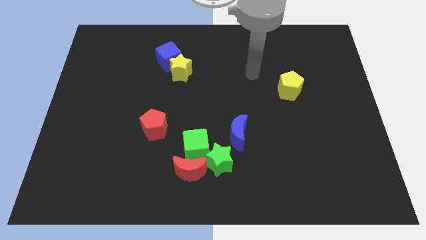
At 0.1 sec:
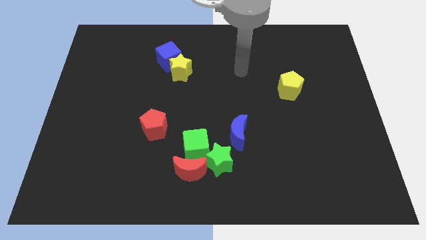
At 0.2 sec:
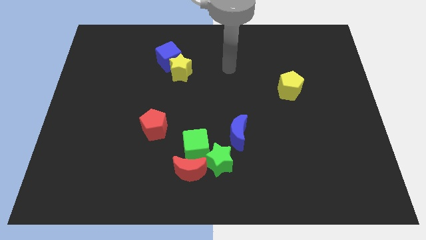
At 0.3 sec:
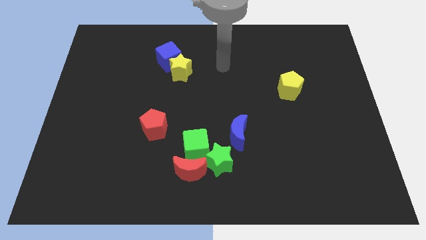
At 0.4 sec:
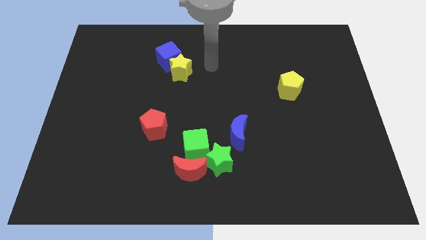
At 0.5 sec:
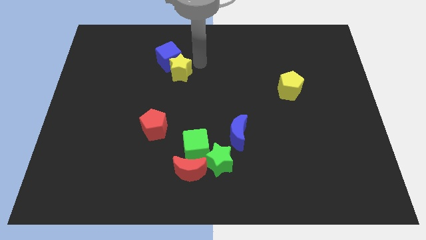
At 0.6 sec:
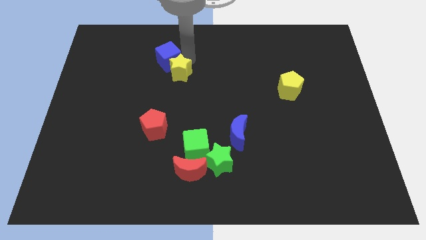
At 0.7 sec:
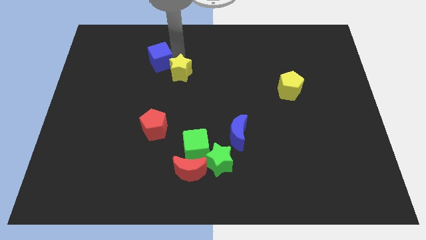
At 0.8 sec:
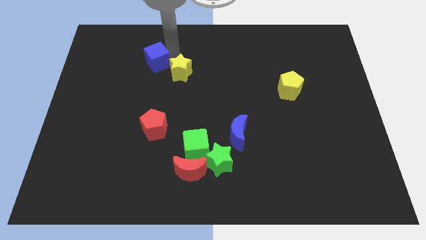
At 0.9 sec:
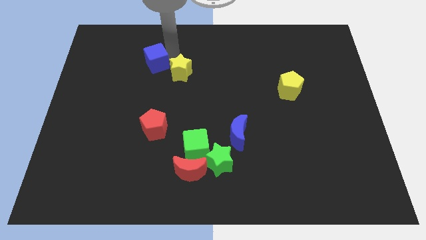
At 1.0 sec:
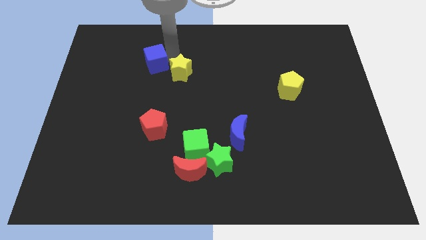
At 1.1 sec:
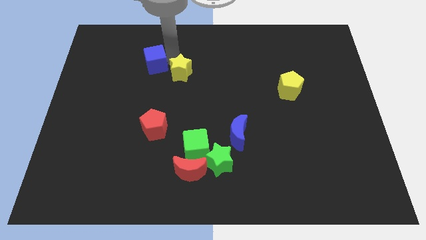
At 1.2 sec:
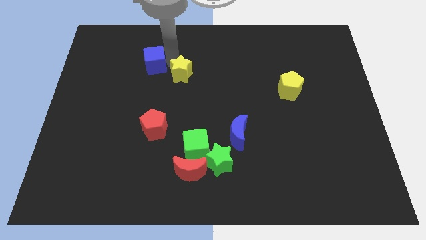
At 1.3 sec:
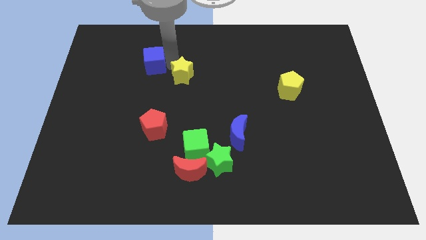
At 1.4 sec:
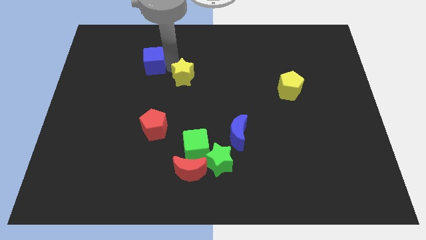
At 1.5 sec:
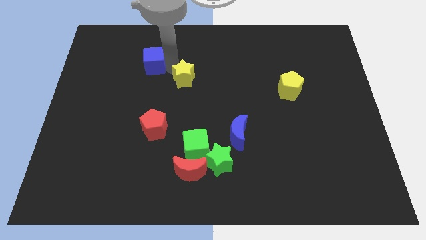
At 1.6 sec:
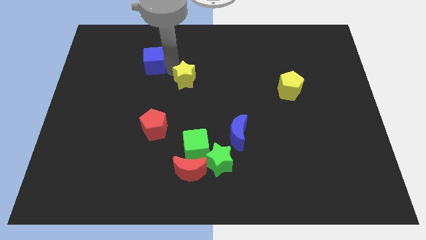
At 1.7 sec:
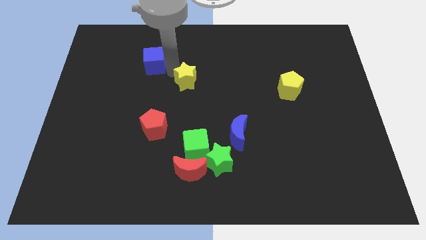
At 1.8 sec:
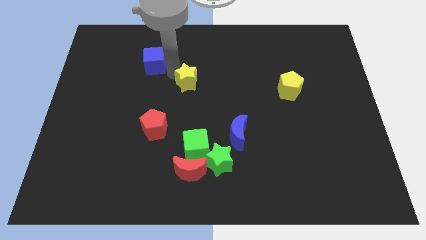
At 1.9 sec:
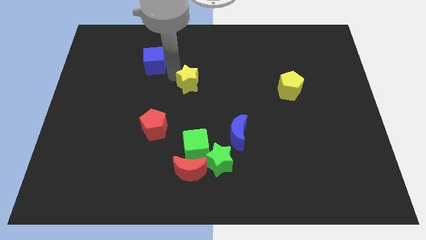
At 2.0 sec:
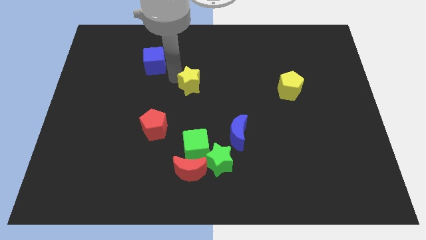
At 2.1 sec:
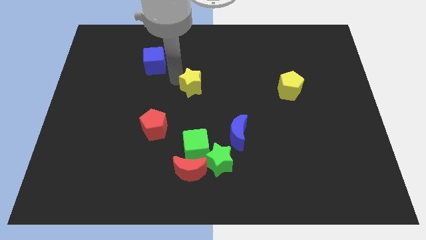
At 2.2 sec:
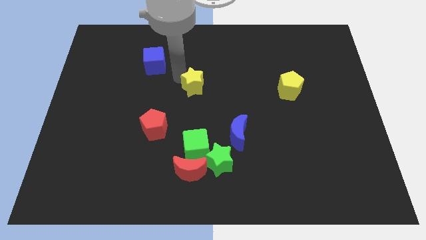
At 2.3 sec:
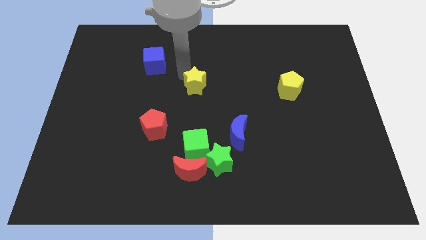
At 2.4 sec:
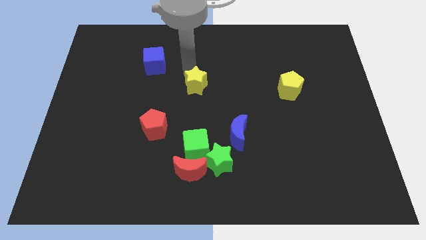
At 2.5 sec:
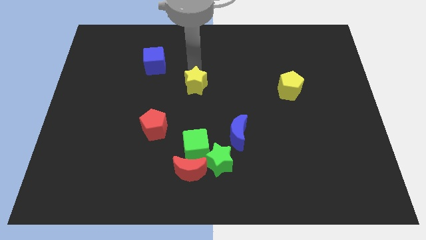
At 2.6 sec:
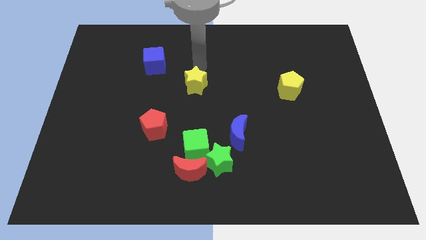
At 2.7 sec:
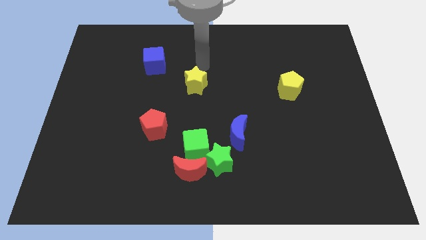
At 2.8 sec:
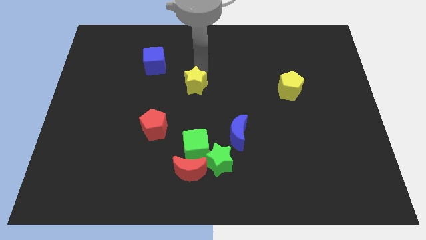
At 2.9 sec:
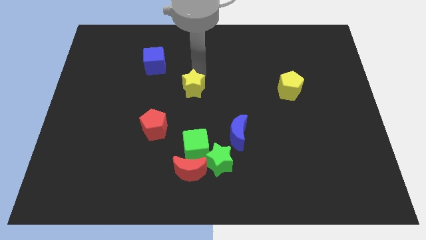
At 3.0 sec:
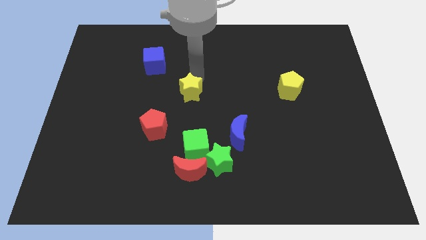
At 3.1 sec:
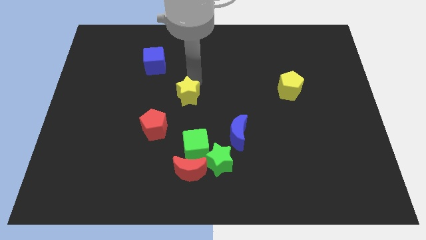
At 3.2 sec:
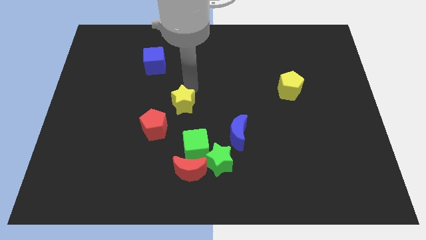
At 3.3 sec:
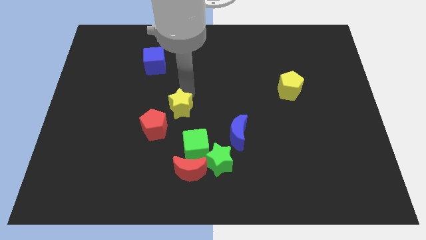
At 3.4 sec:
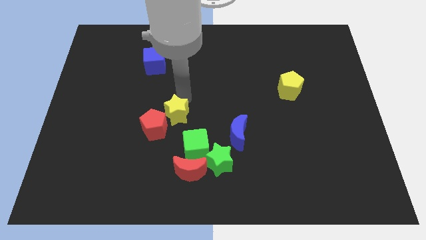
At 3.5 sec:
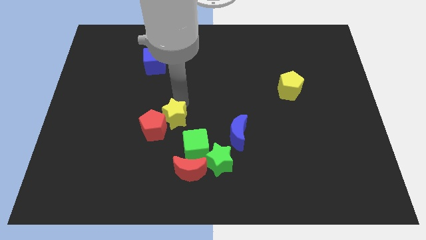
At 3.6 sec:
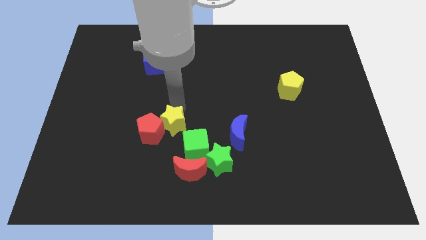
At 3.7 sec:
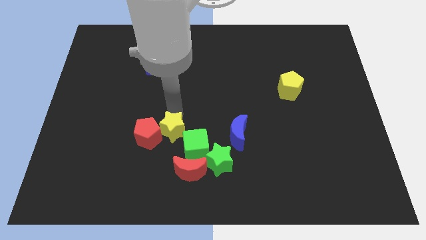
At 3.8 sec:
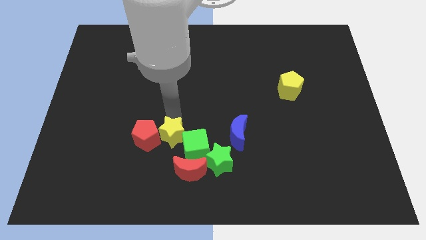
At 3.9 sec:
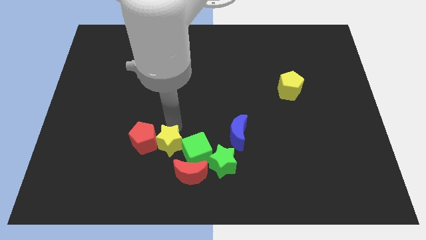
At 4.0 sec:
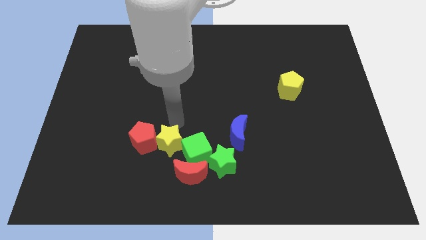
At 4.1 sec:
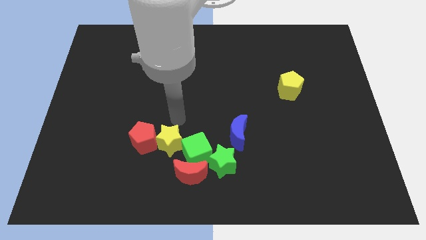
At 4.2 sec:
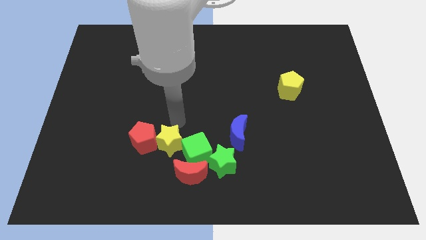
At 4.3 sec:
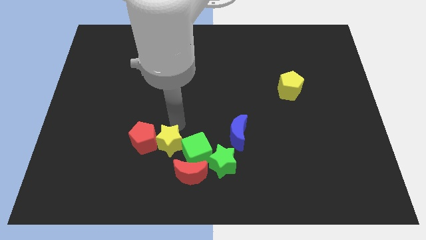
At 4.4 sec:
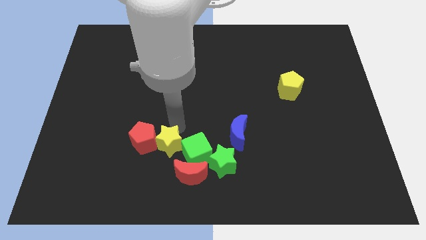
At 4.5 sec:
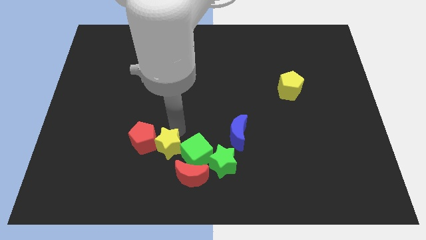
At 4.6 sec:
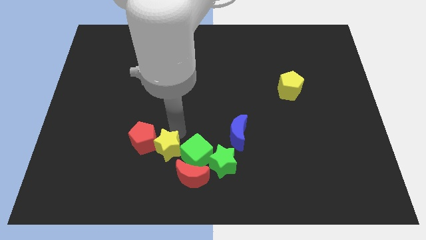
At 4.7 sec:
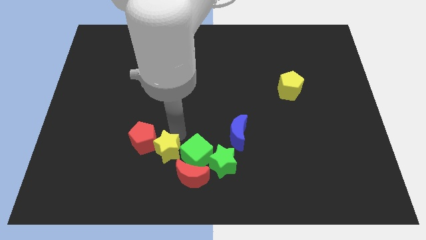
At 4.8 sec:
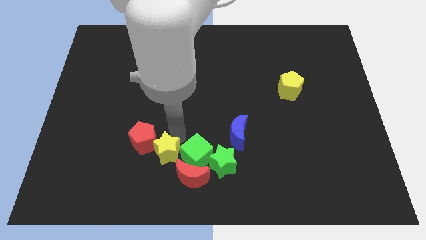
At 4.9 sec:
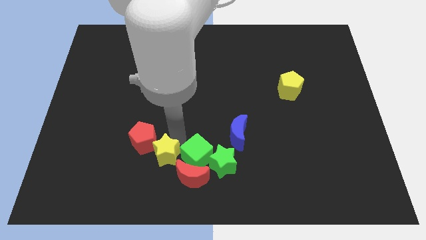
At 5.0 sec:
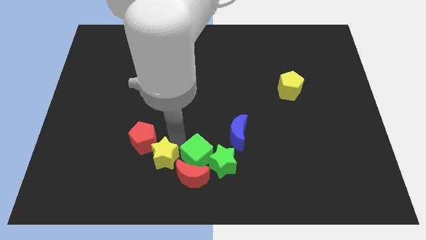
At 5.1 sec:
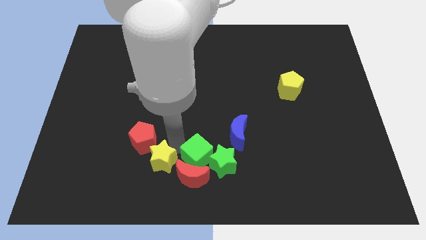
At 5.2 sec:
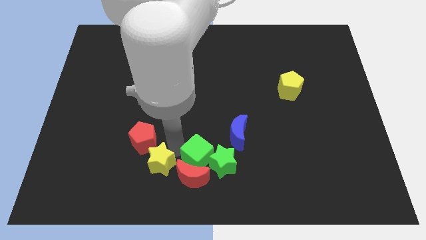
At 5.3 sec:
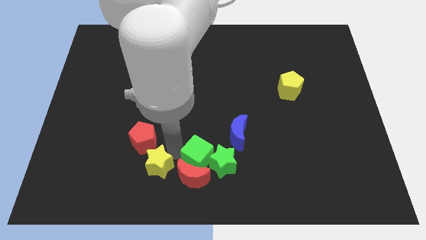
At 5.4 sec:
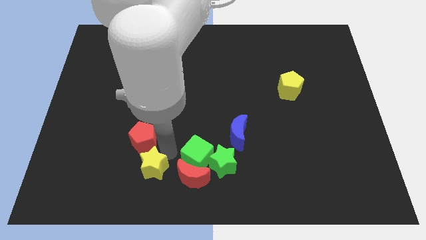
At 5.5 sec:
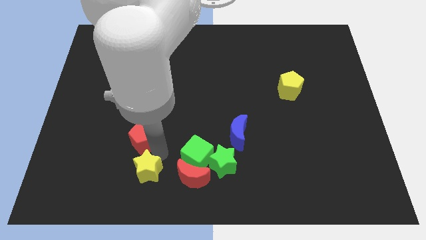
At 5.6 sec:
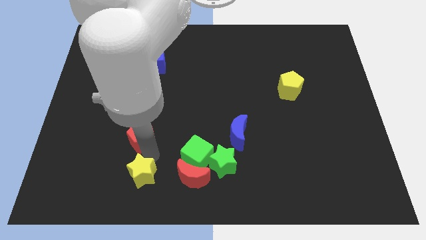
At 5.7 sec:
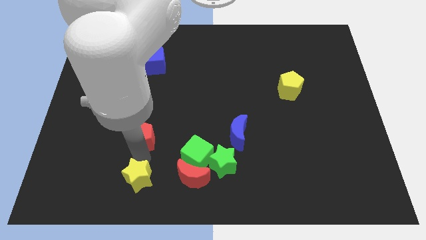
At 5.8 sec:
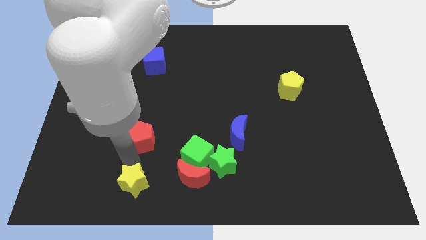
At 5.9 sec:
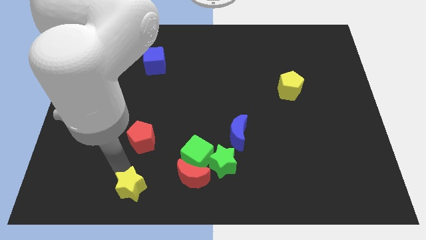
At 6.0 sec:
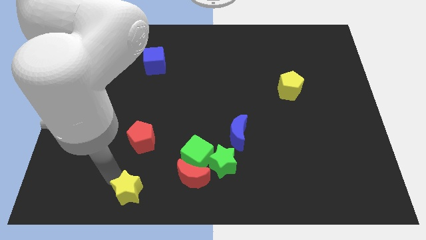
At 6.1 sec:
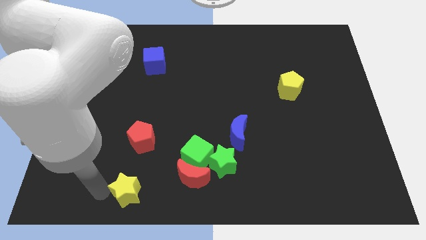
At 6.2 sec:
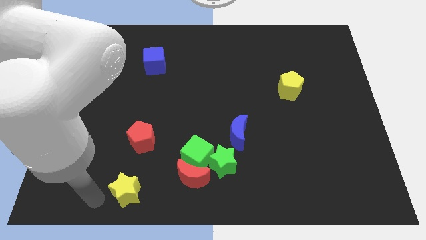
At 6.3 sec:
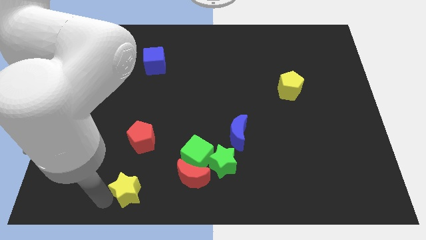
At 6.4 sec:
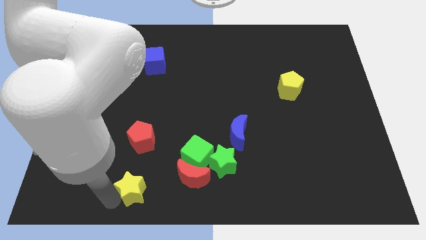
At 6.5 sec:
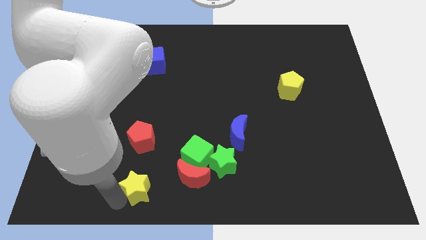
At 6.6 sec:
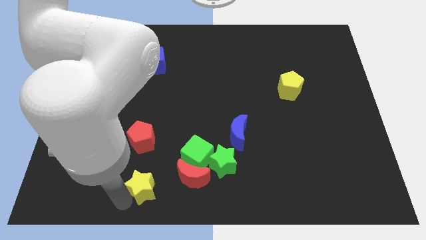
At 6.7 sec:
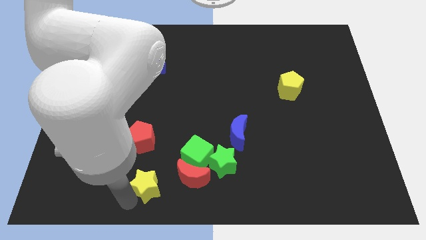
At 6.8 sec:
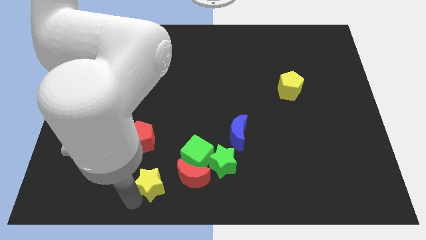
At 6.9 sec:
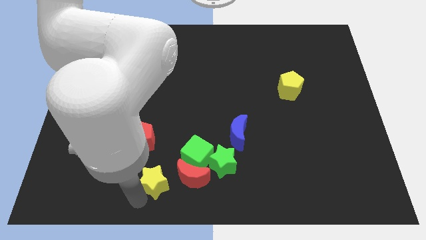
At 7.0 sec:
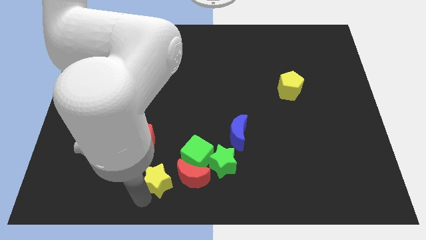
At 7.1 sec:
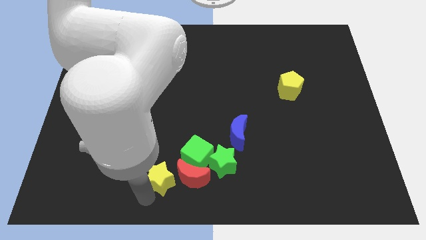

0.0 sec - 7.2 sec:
put the yellow star close to the red moon

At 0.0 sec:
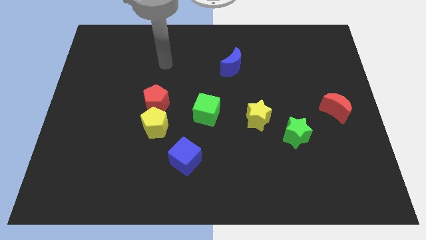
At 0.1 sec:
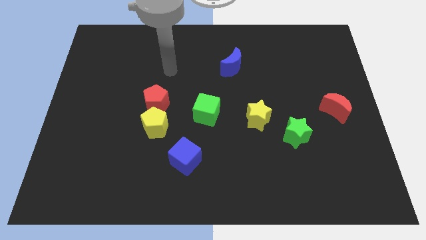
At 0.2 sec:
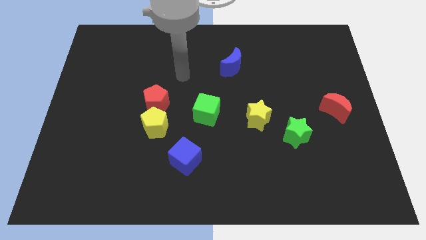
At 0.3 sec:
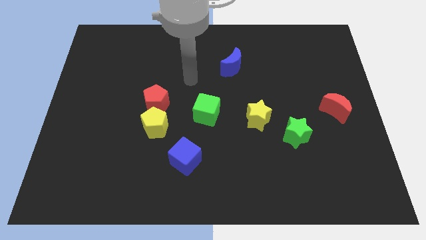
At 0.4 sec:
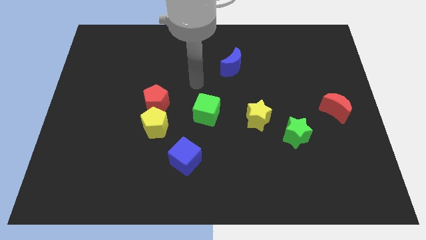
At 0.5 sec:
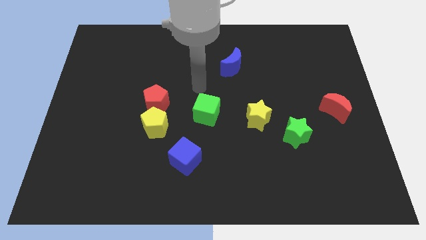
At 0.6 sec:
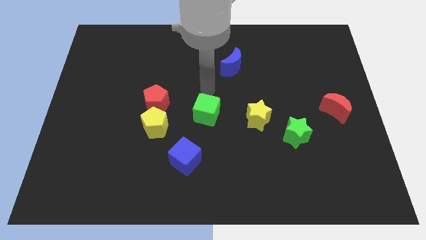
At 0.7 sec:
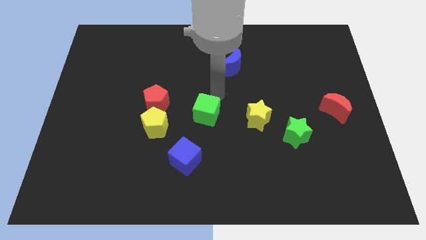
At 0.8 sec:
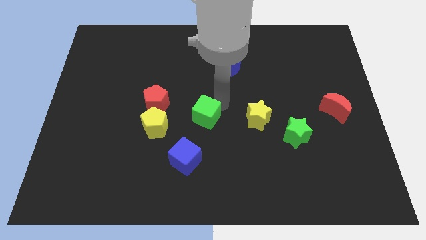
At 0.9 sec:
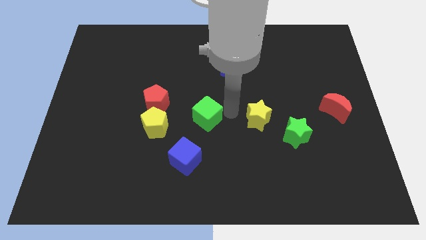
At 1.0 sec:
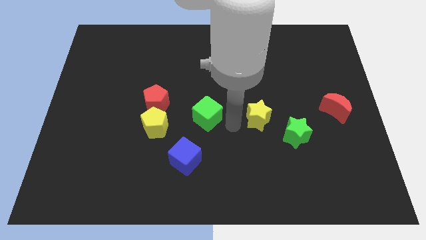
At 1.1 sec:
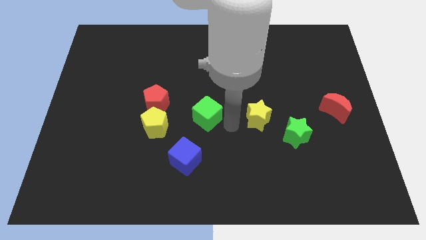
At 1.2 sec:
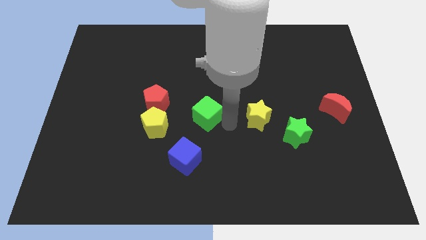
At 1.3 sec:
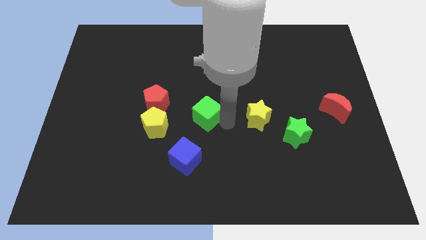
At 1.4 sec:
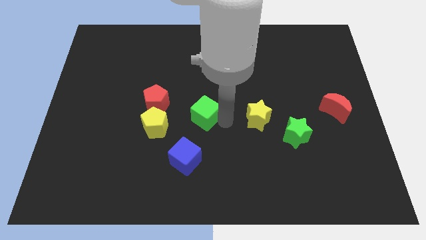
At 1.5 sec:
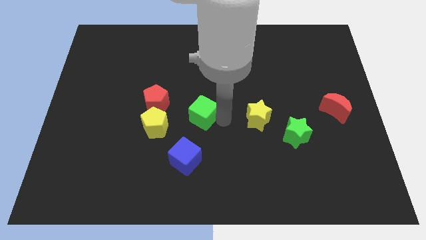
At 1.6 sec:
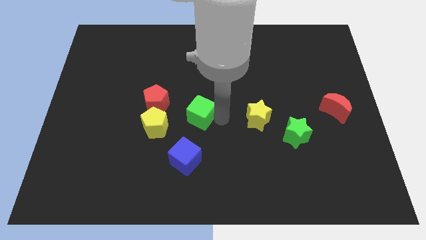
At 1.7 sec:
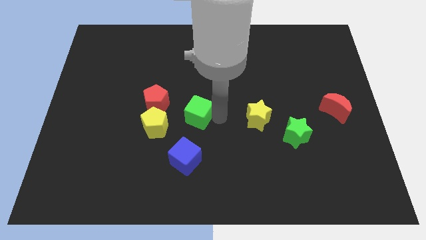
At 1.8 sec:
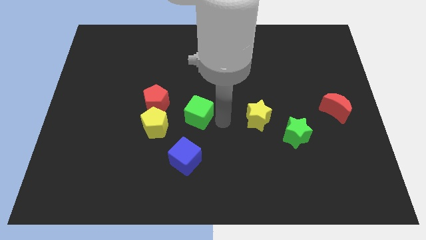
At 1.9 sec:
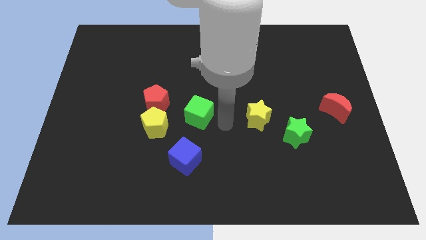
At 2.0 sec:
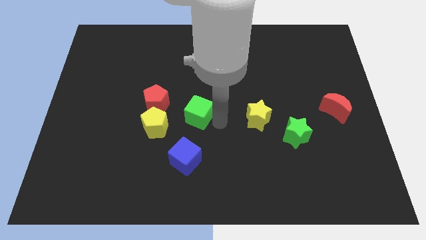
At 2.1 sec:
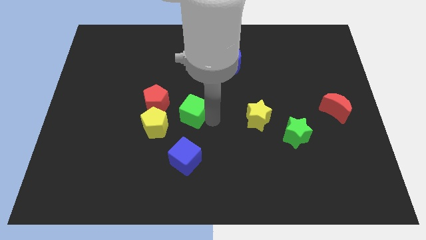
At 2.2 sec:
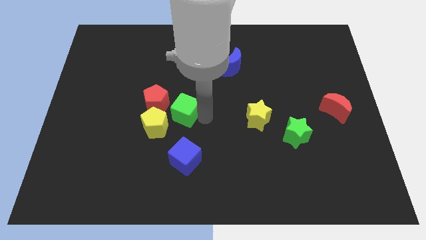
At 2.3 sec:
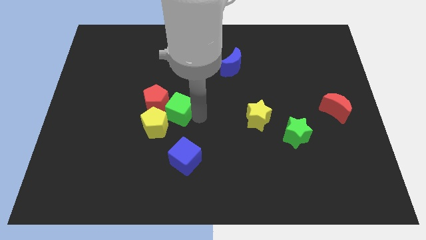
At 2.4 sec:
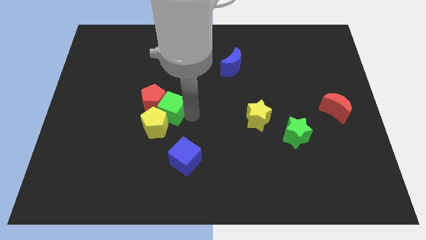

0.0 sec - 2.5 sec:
move the green cube towards the red pentagon
